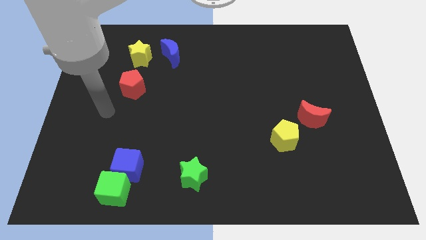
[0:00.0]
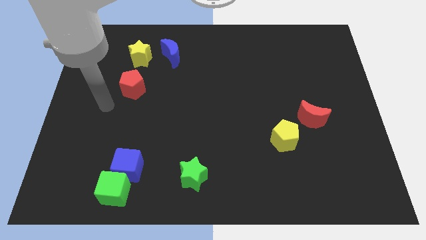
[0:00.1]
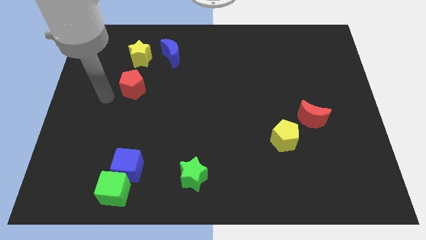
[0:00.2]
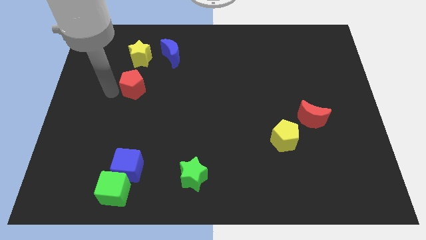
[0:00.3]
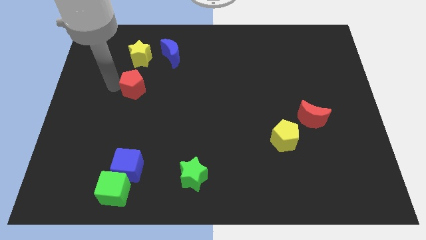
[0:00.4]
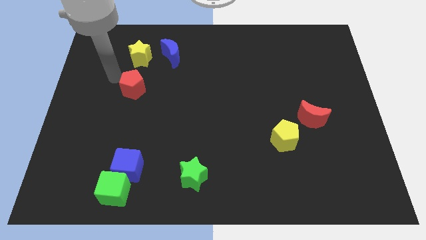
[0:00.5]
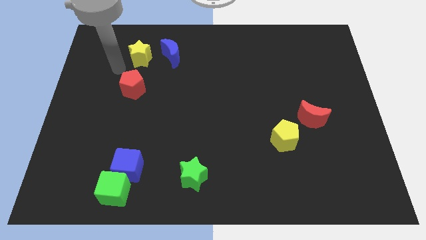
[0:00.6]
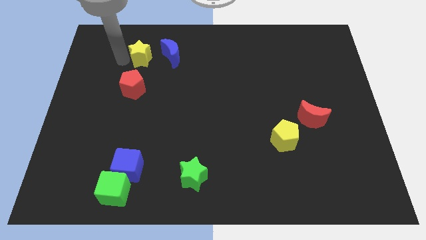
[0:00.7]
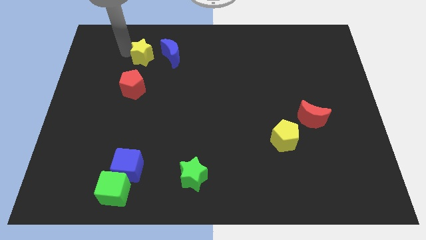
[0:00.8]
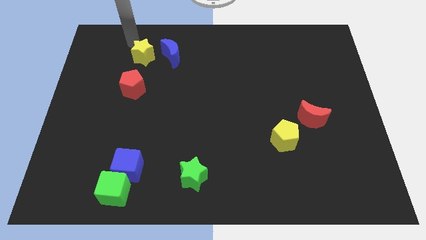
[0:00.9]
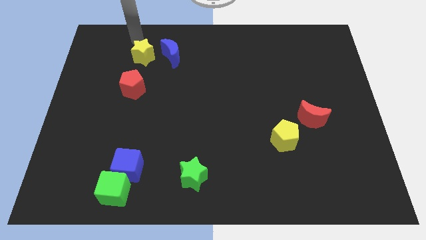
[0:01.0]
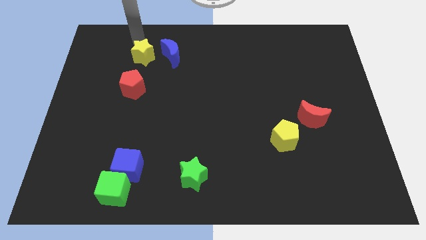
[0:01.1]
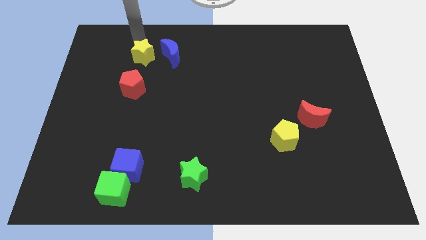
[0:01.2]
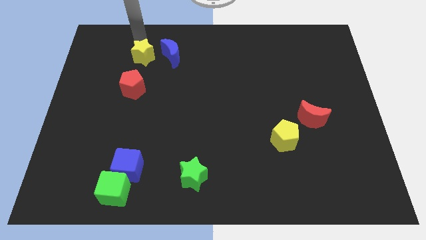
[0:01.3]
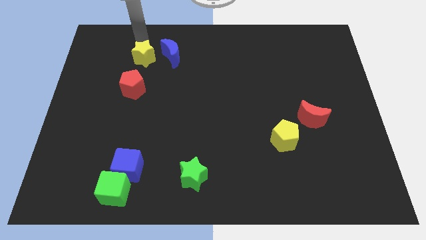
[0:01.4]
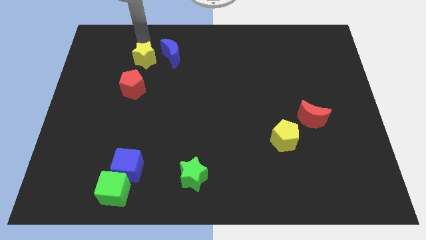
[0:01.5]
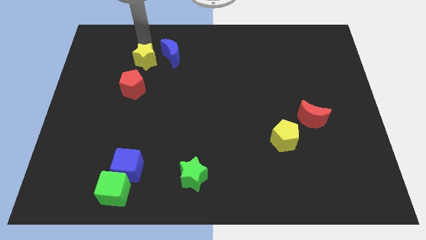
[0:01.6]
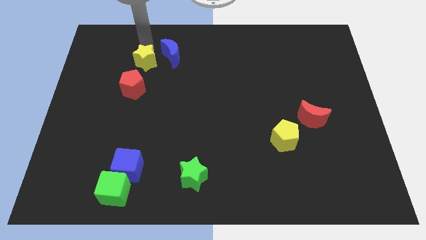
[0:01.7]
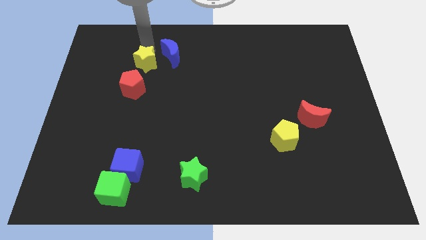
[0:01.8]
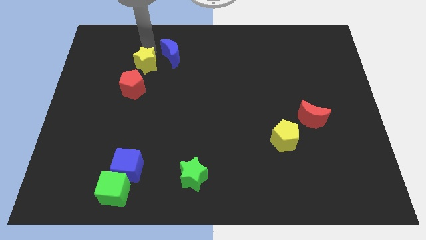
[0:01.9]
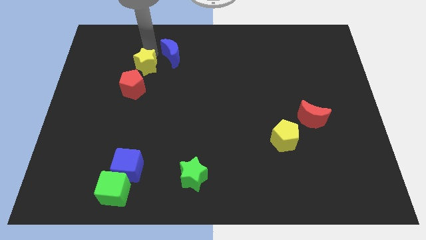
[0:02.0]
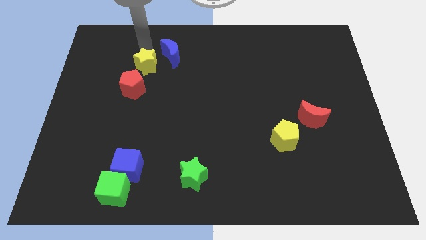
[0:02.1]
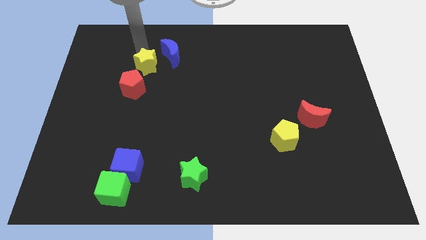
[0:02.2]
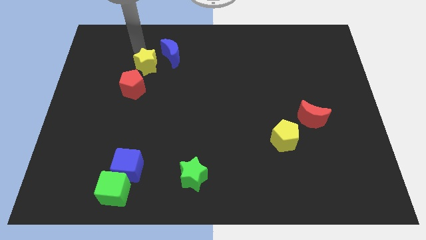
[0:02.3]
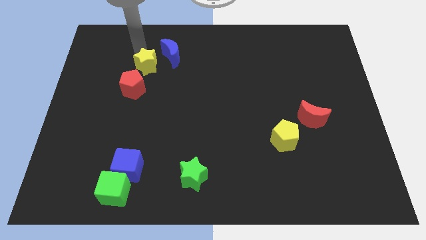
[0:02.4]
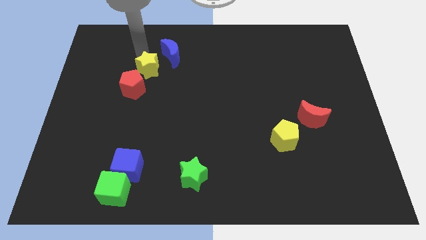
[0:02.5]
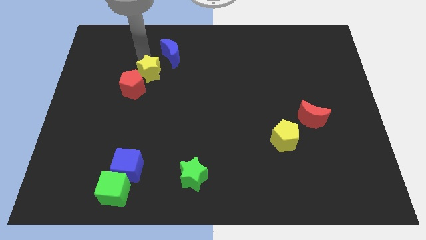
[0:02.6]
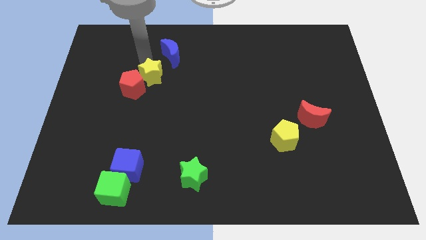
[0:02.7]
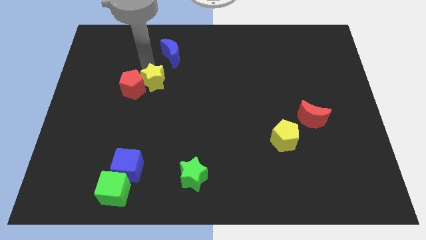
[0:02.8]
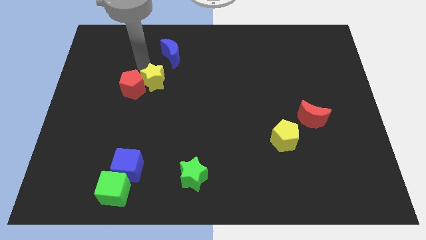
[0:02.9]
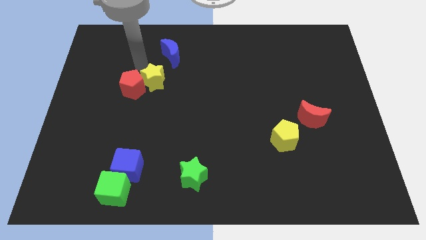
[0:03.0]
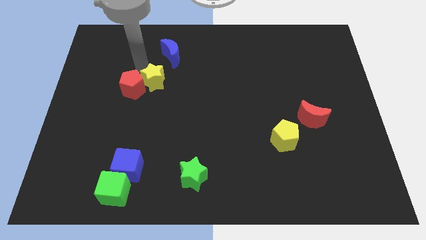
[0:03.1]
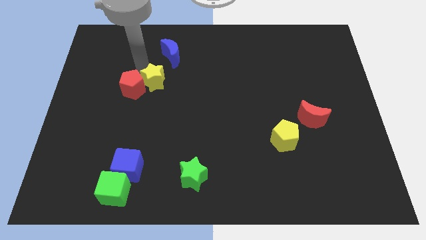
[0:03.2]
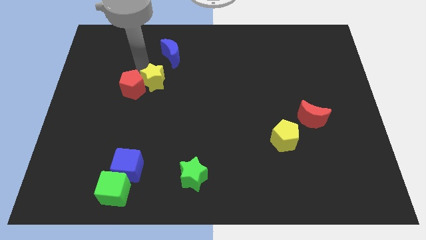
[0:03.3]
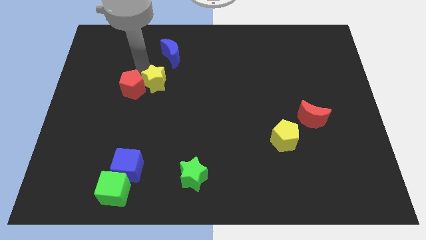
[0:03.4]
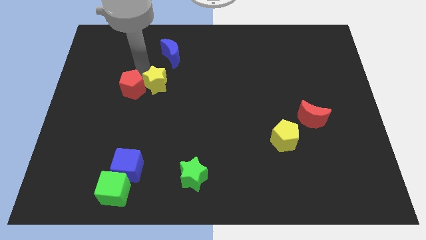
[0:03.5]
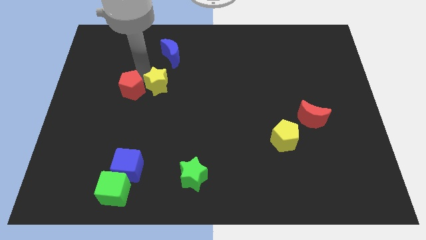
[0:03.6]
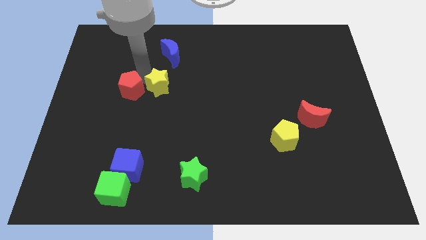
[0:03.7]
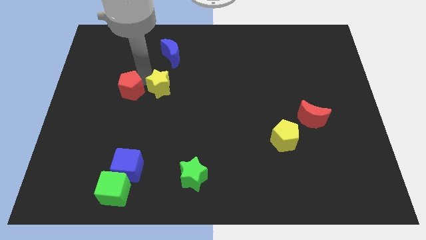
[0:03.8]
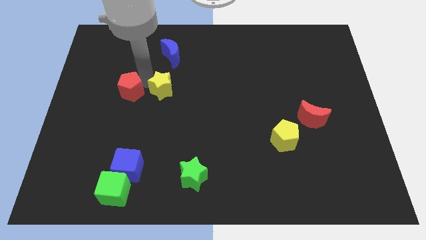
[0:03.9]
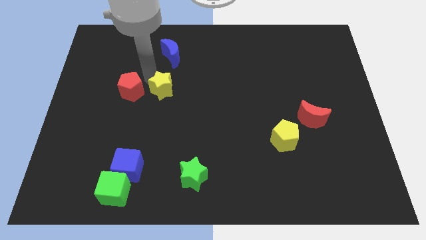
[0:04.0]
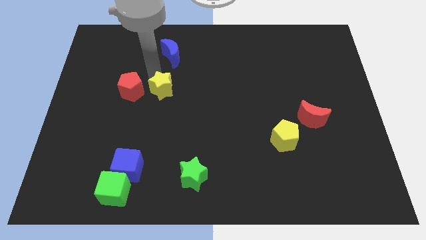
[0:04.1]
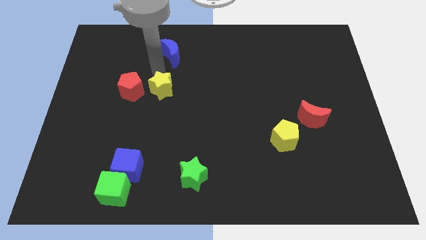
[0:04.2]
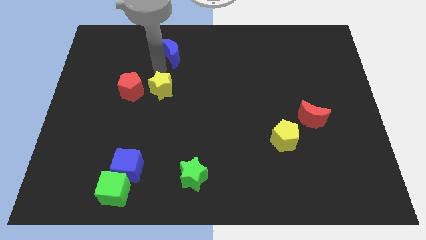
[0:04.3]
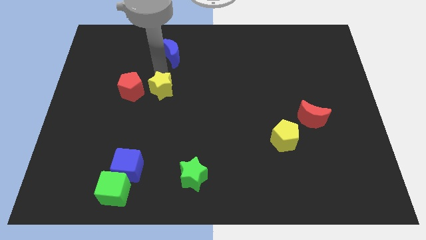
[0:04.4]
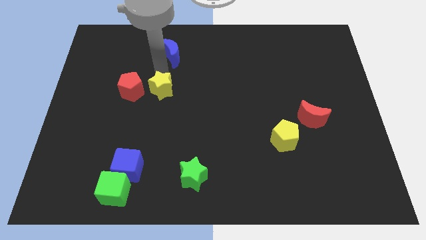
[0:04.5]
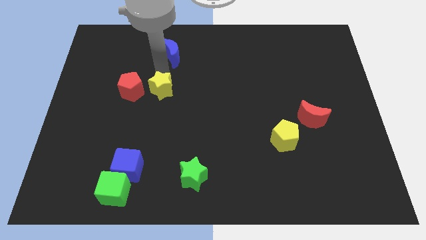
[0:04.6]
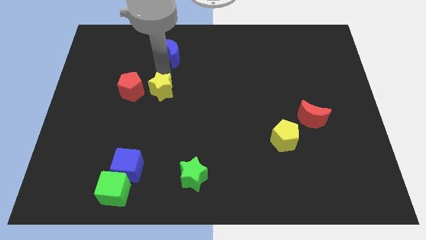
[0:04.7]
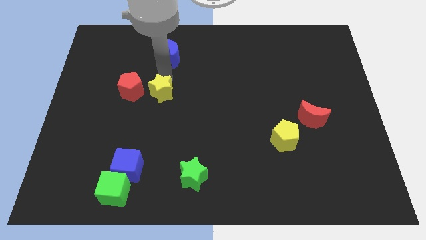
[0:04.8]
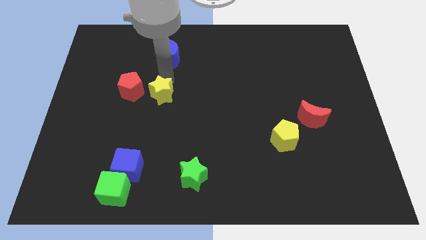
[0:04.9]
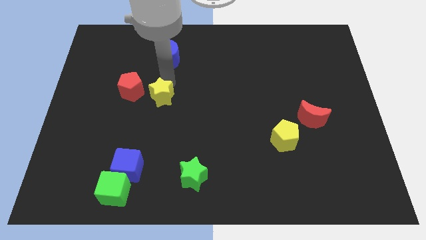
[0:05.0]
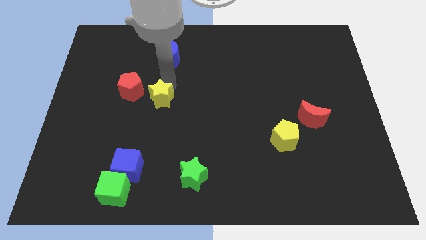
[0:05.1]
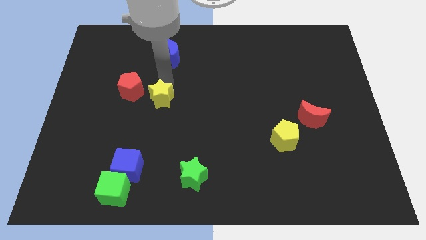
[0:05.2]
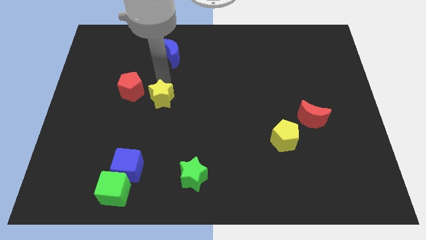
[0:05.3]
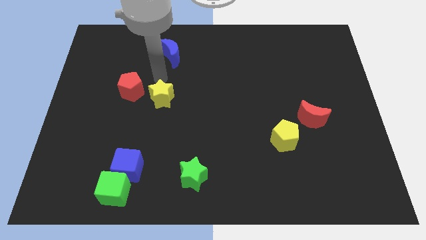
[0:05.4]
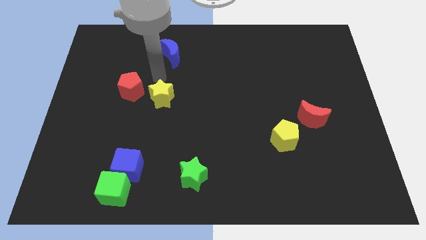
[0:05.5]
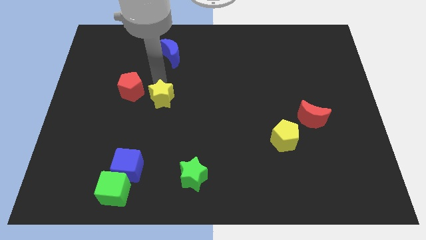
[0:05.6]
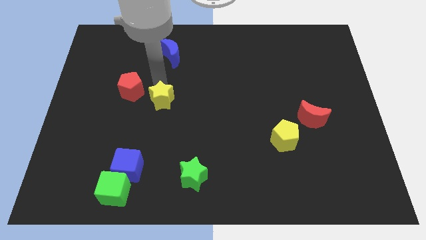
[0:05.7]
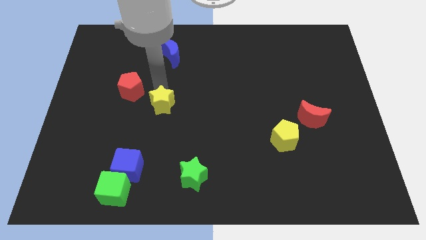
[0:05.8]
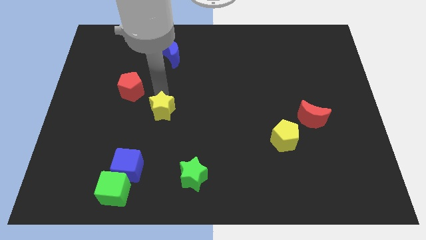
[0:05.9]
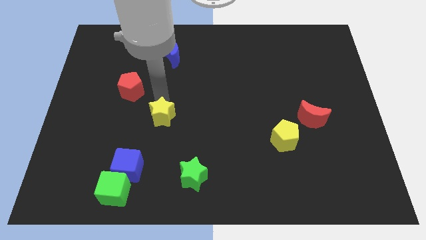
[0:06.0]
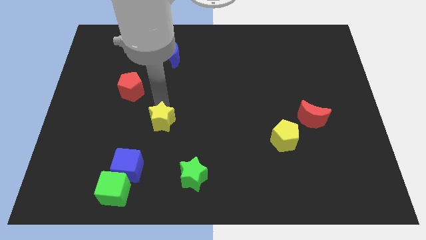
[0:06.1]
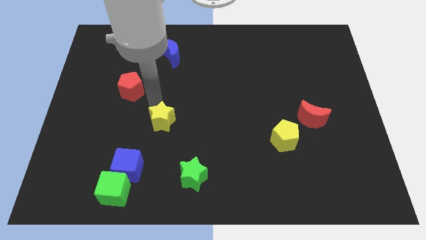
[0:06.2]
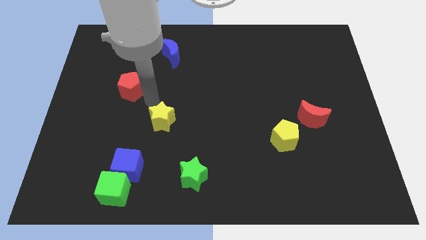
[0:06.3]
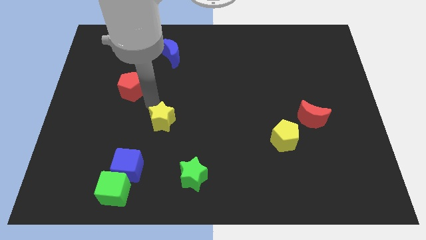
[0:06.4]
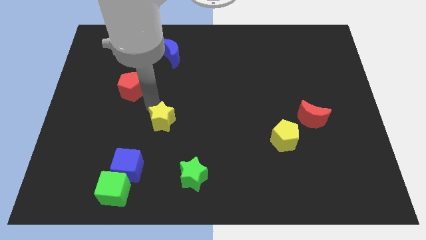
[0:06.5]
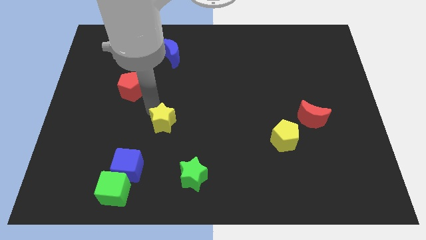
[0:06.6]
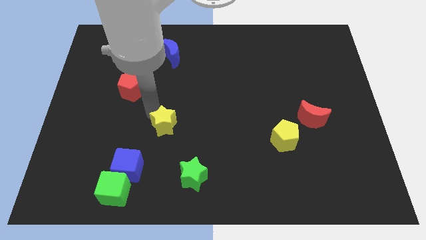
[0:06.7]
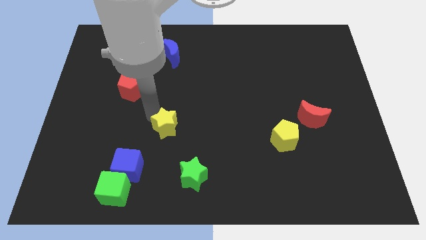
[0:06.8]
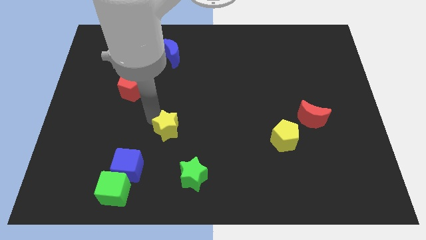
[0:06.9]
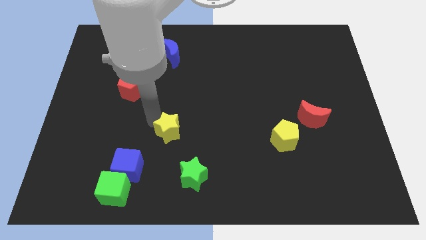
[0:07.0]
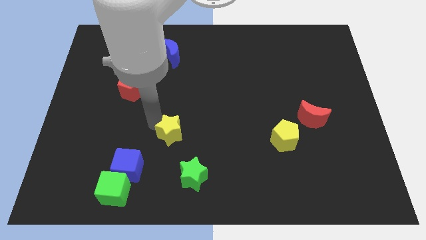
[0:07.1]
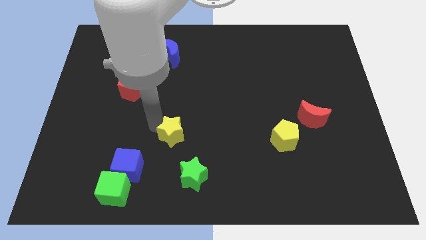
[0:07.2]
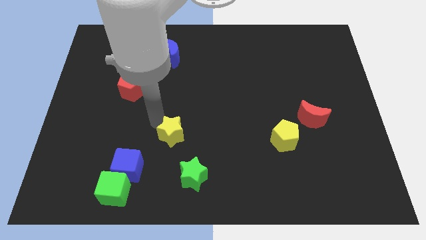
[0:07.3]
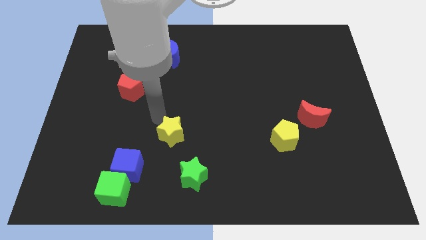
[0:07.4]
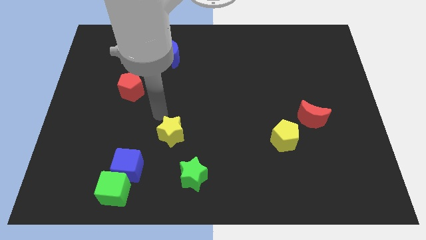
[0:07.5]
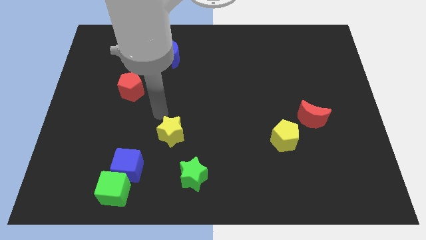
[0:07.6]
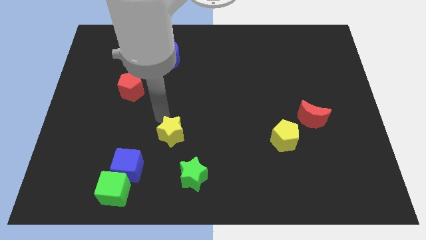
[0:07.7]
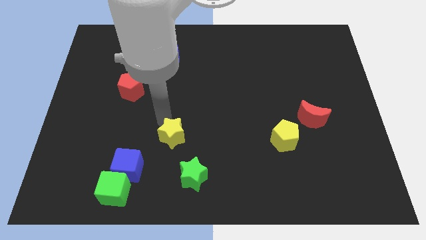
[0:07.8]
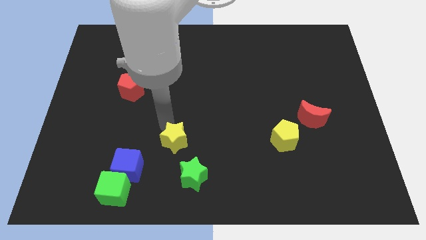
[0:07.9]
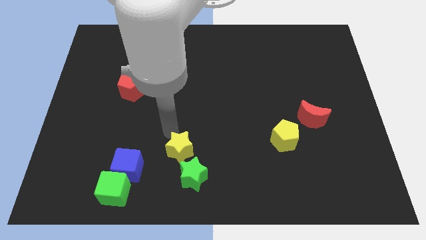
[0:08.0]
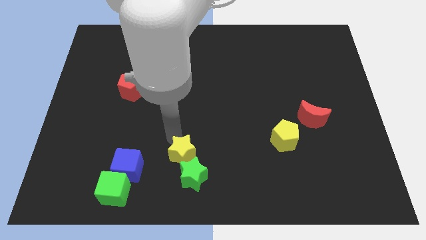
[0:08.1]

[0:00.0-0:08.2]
put the yellow star next to the green star
